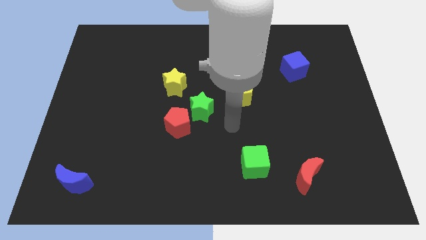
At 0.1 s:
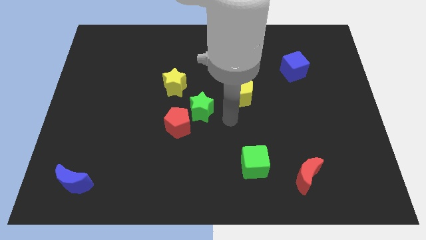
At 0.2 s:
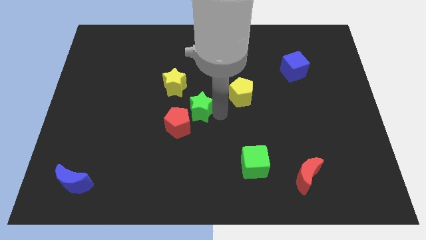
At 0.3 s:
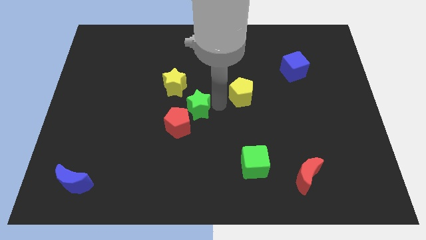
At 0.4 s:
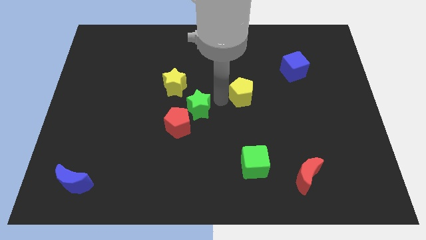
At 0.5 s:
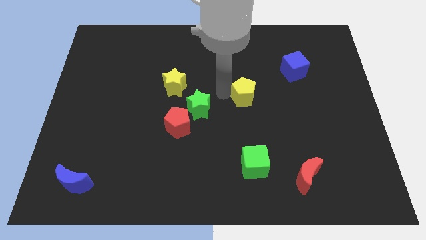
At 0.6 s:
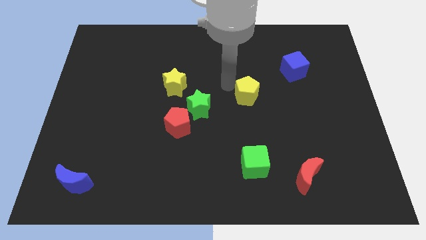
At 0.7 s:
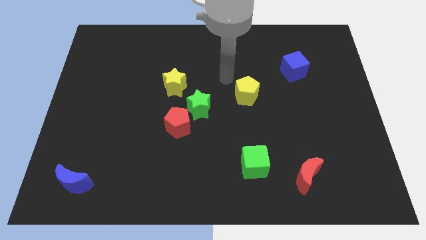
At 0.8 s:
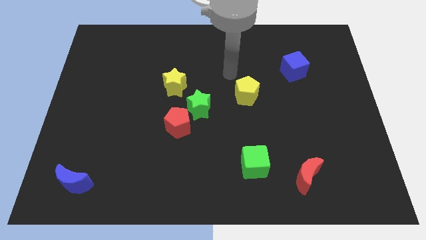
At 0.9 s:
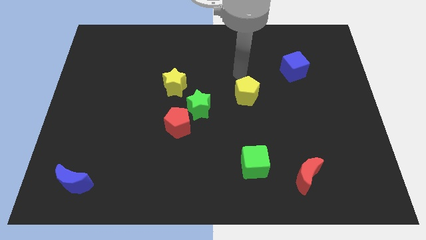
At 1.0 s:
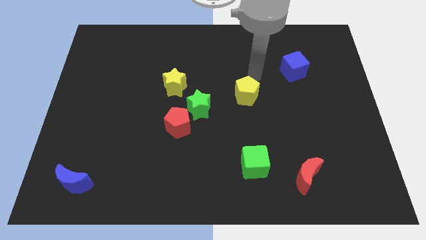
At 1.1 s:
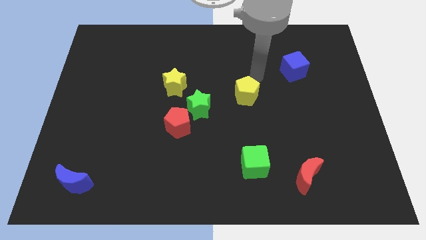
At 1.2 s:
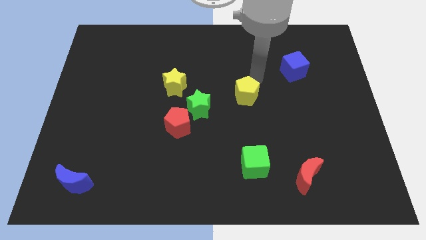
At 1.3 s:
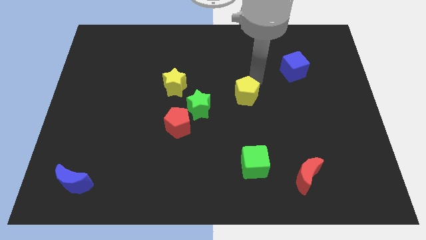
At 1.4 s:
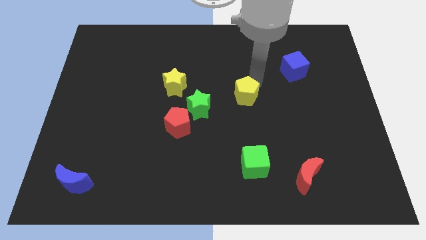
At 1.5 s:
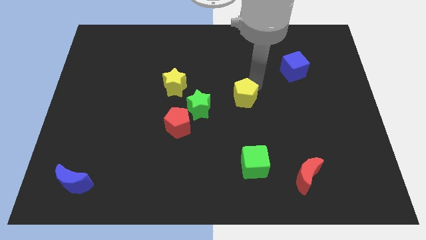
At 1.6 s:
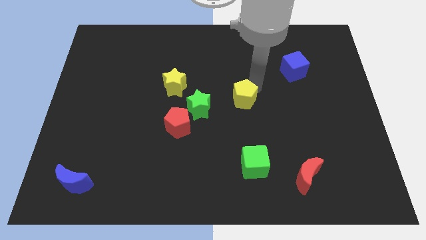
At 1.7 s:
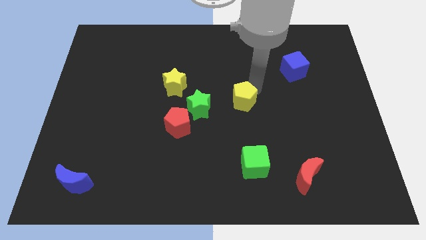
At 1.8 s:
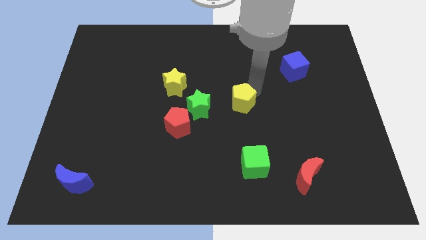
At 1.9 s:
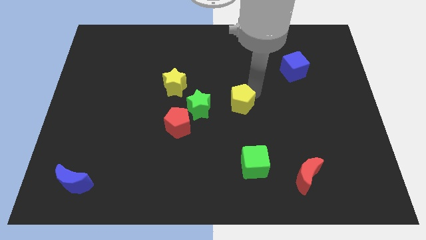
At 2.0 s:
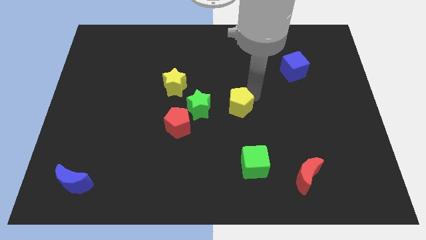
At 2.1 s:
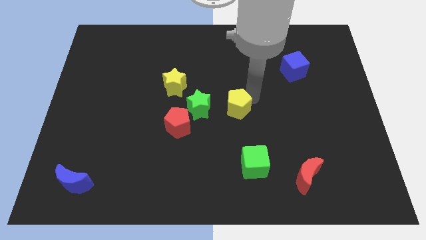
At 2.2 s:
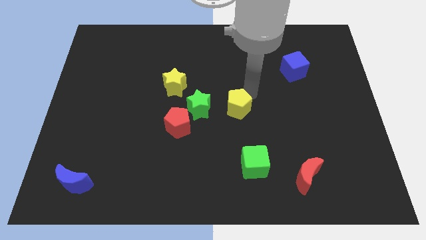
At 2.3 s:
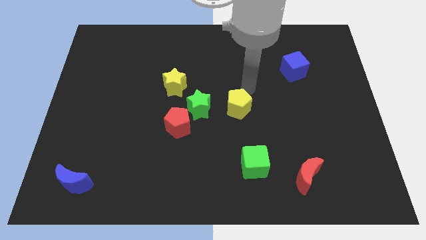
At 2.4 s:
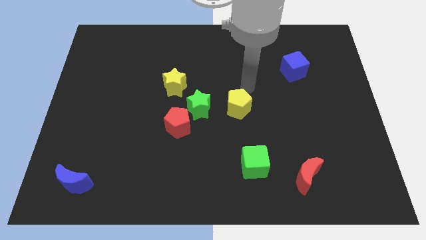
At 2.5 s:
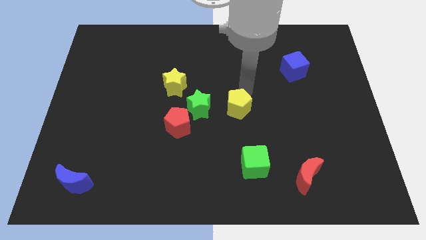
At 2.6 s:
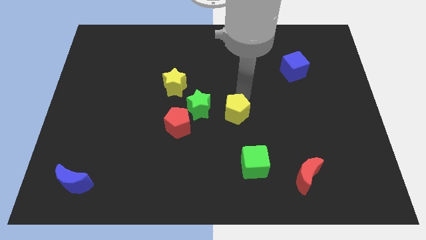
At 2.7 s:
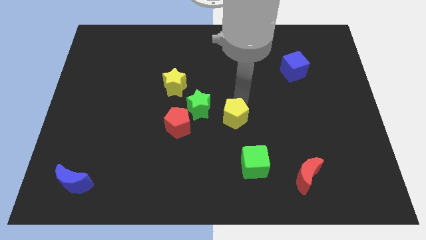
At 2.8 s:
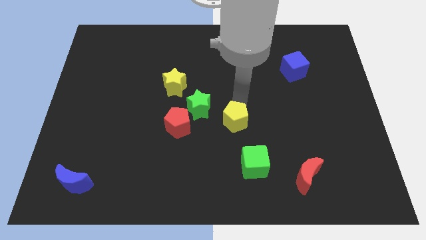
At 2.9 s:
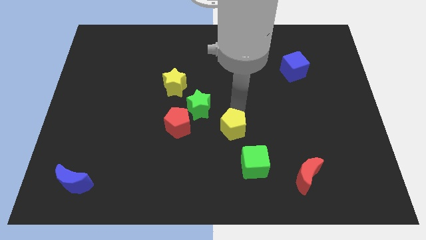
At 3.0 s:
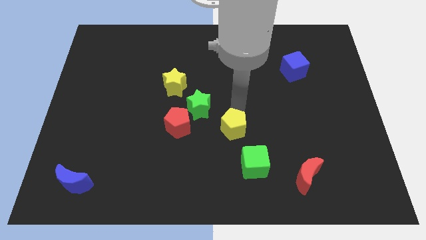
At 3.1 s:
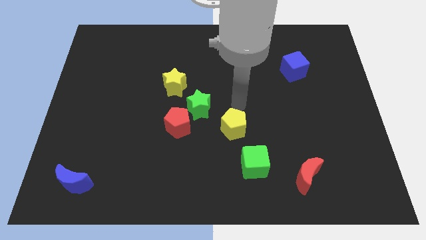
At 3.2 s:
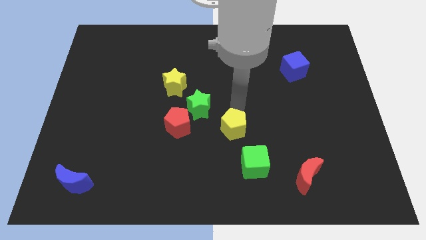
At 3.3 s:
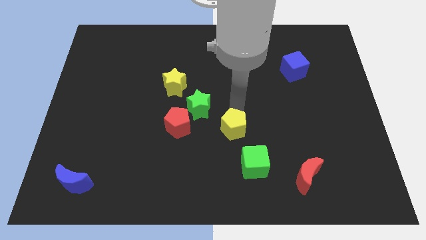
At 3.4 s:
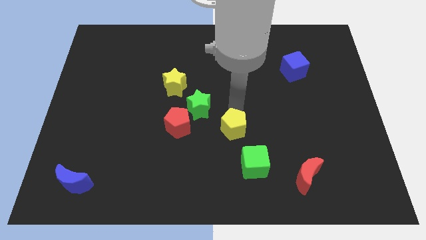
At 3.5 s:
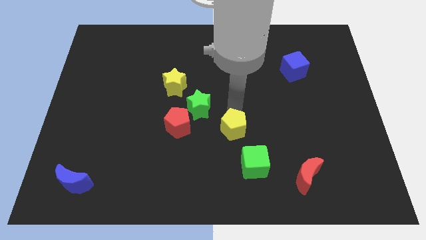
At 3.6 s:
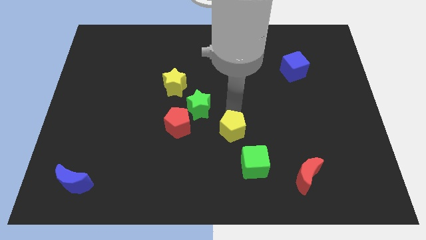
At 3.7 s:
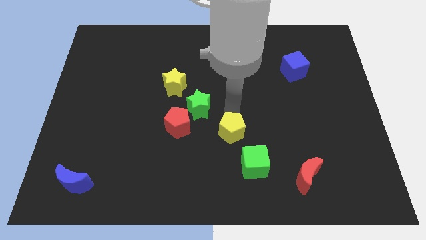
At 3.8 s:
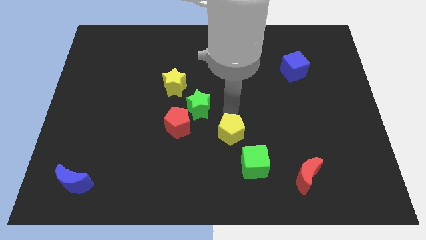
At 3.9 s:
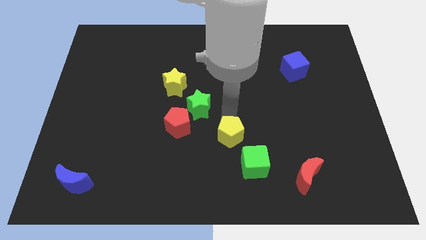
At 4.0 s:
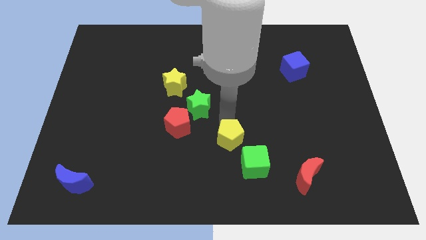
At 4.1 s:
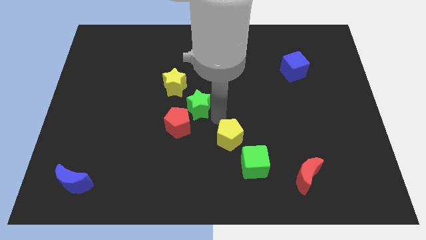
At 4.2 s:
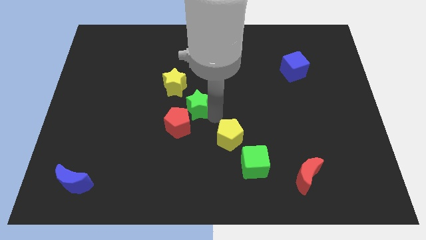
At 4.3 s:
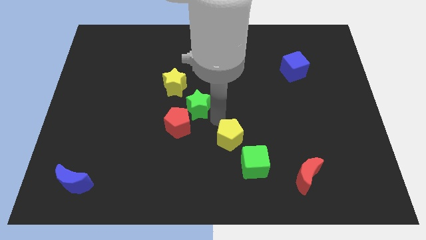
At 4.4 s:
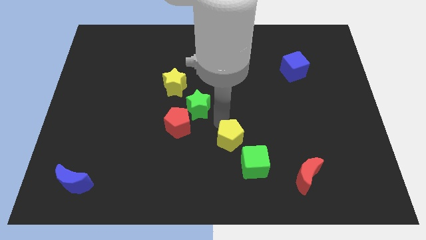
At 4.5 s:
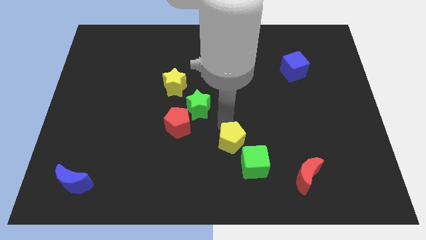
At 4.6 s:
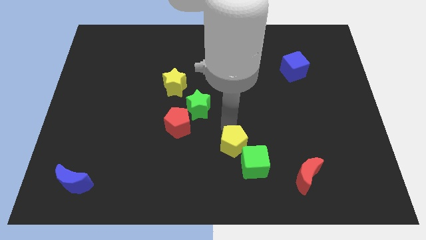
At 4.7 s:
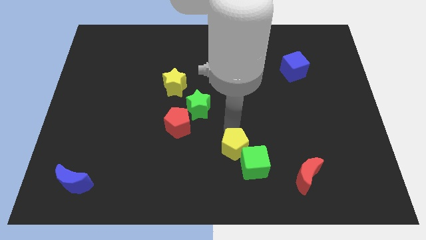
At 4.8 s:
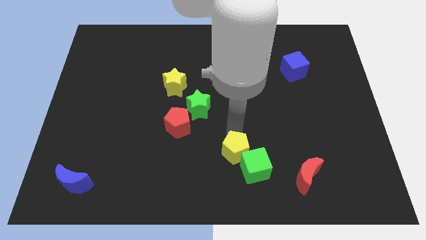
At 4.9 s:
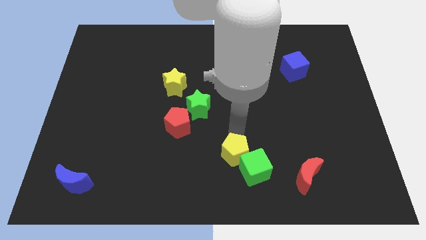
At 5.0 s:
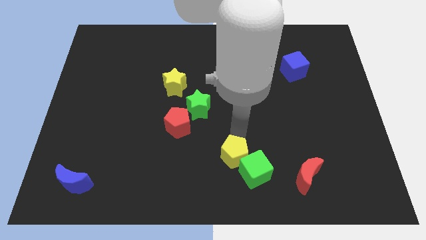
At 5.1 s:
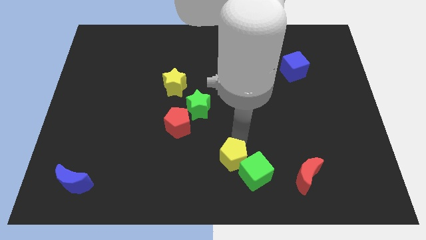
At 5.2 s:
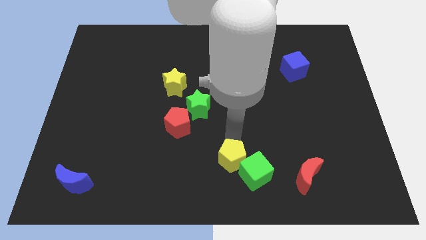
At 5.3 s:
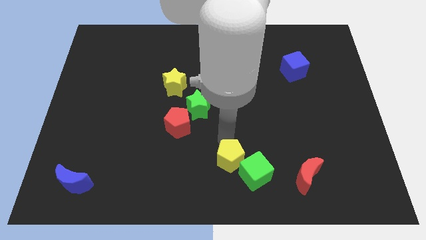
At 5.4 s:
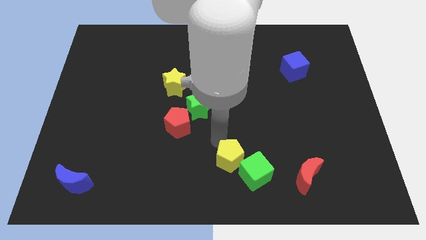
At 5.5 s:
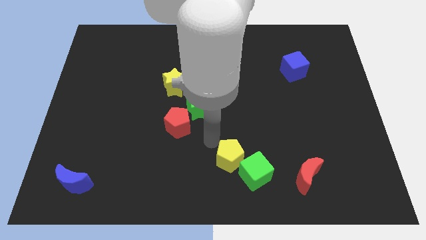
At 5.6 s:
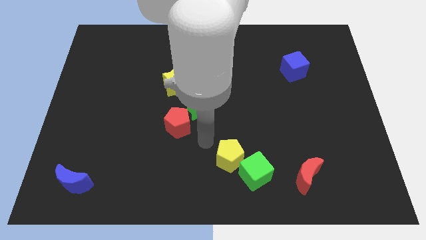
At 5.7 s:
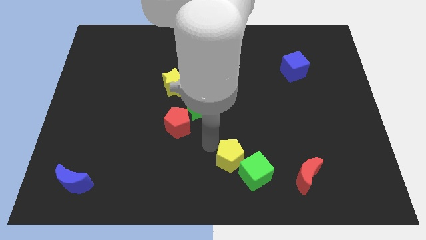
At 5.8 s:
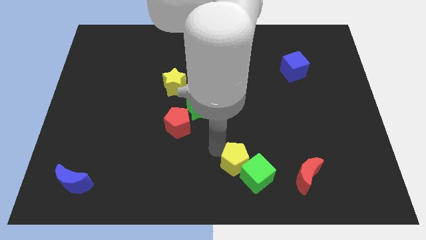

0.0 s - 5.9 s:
slide the yellow pentagon to the left of the red moon

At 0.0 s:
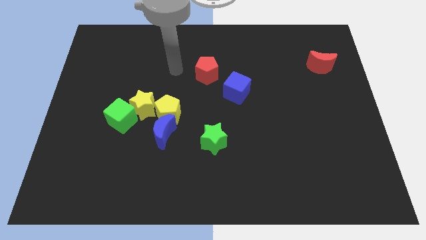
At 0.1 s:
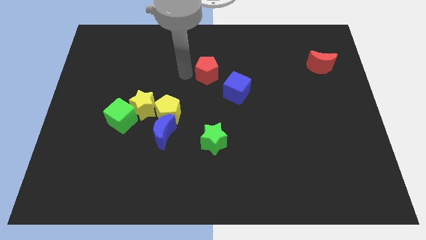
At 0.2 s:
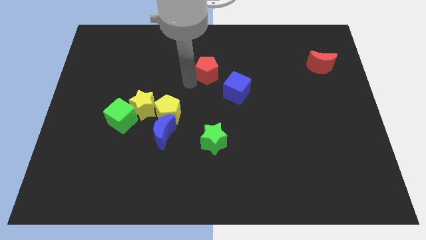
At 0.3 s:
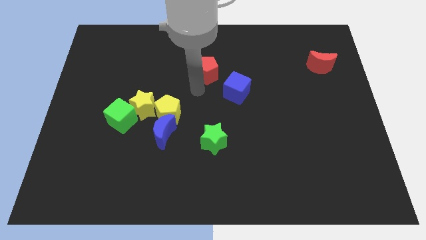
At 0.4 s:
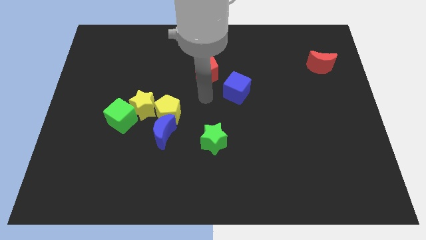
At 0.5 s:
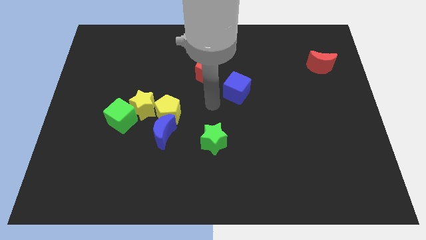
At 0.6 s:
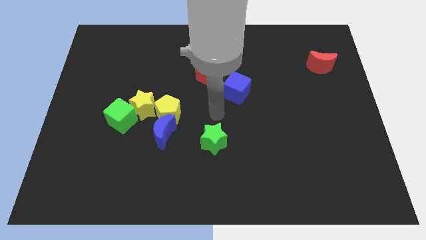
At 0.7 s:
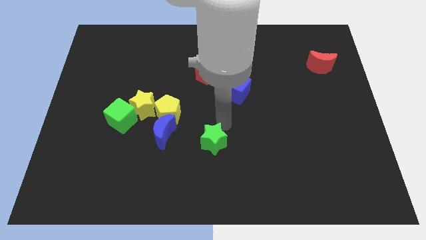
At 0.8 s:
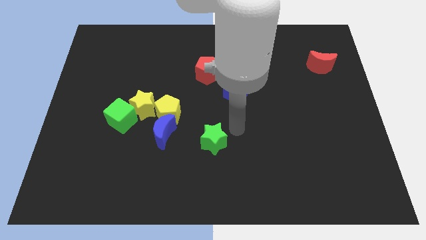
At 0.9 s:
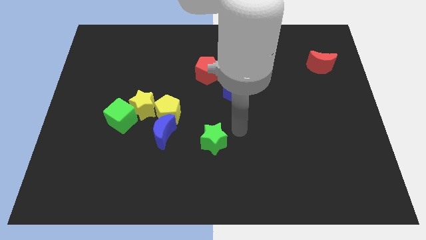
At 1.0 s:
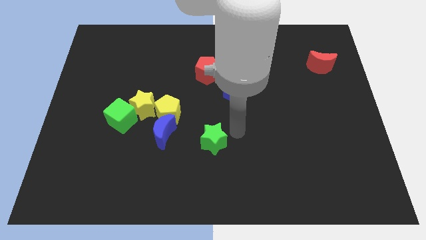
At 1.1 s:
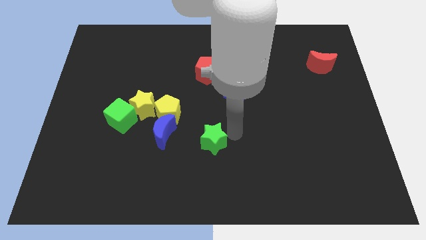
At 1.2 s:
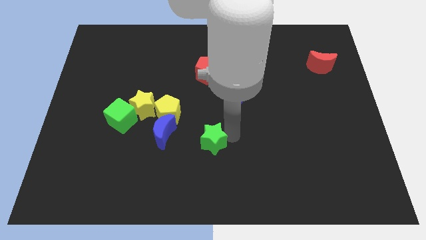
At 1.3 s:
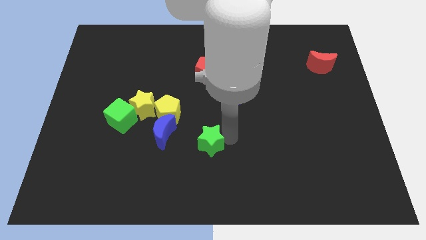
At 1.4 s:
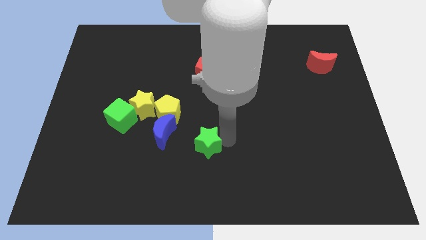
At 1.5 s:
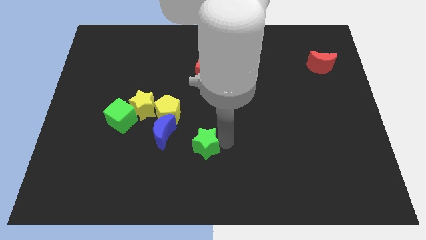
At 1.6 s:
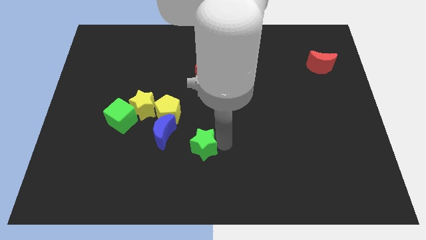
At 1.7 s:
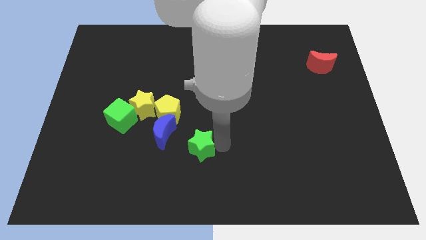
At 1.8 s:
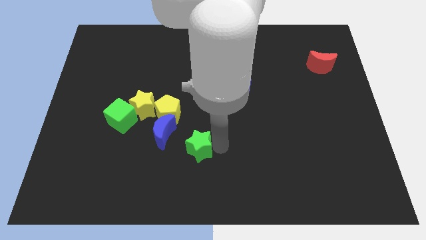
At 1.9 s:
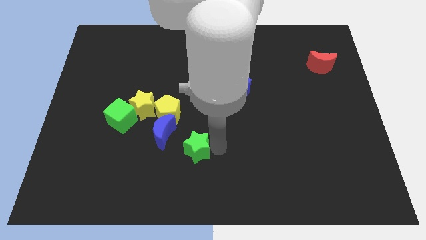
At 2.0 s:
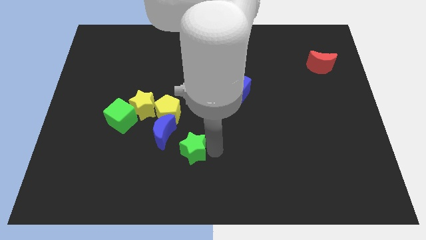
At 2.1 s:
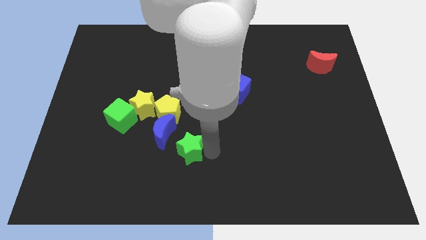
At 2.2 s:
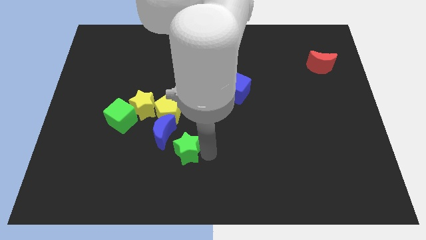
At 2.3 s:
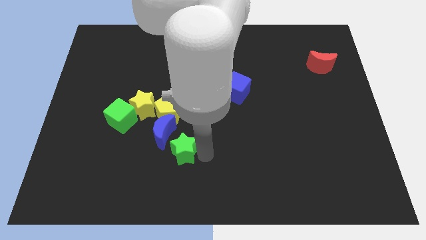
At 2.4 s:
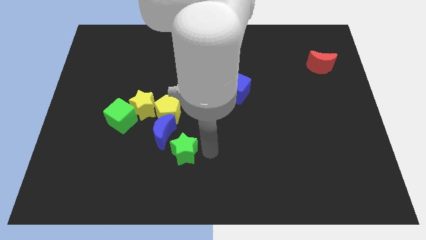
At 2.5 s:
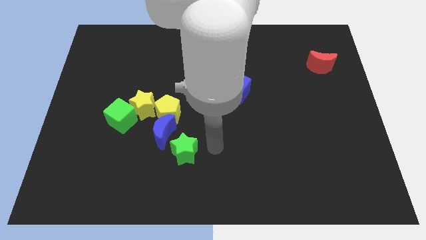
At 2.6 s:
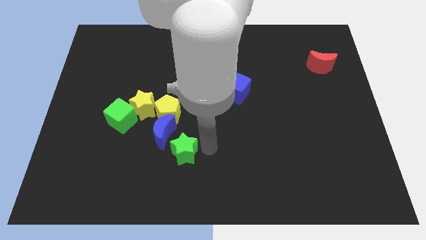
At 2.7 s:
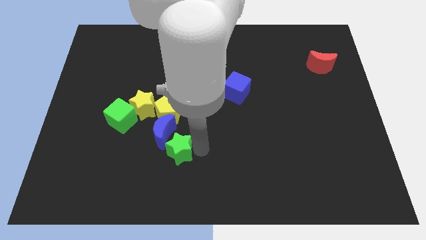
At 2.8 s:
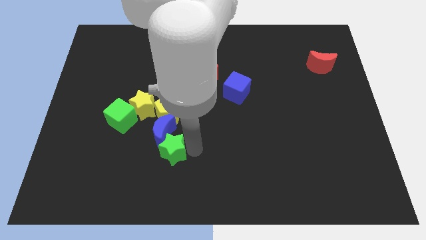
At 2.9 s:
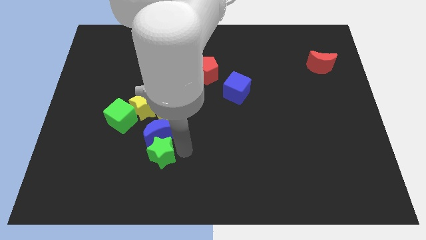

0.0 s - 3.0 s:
put the green star diagonally down and to the left of the blue moon
